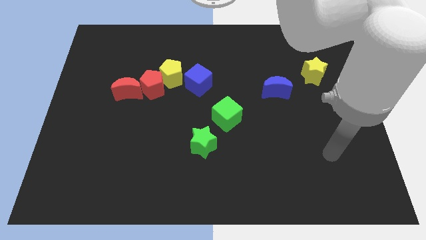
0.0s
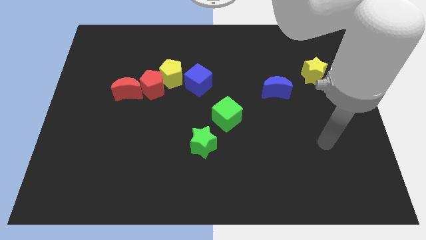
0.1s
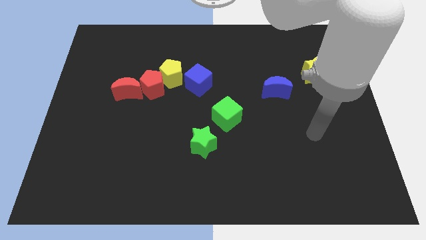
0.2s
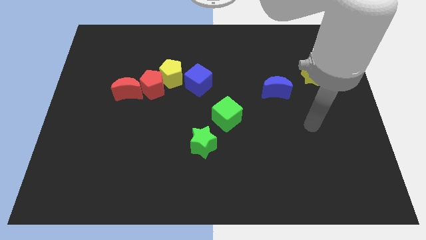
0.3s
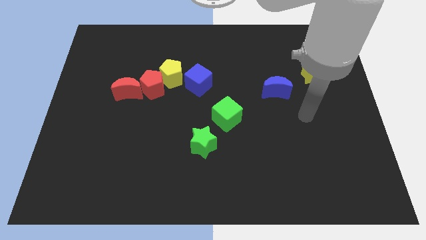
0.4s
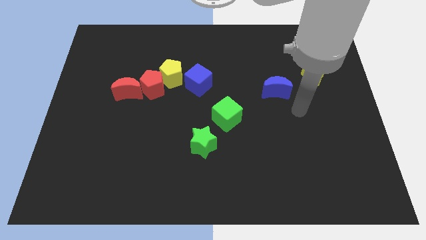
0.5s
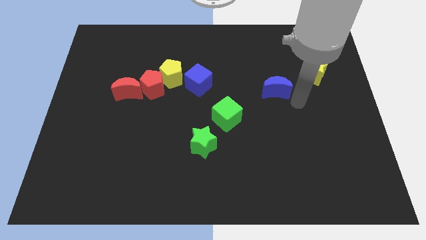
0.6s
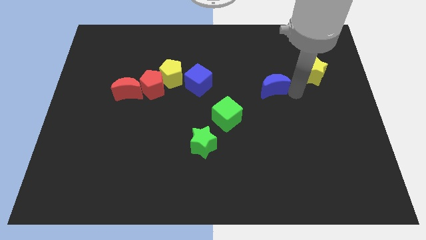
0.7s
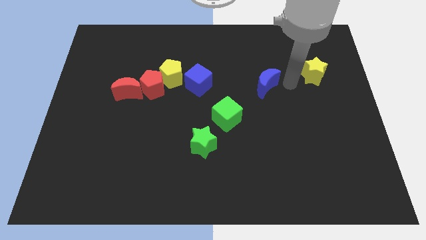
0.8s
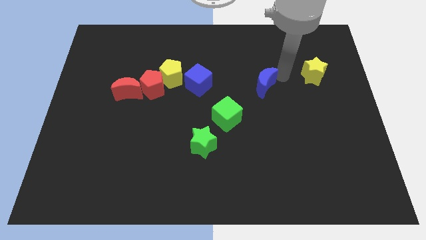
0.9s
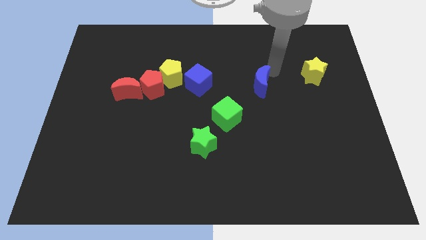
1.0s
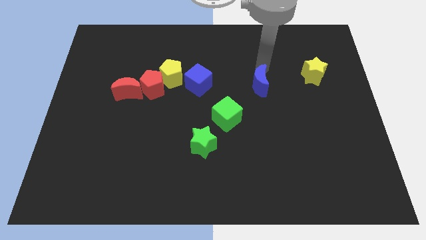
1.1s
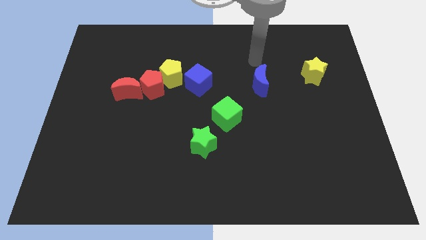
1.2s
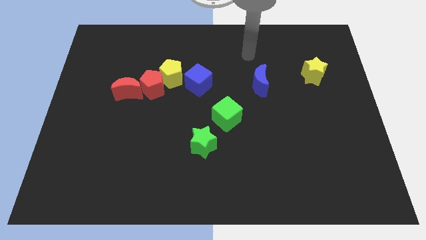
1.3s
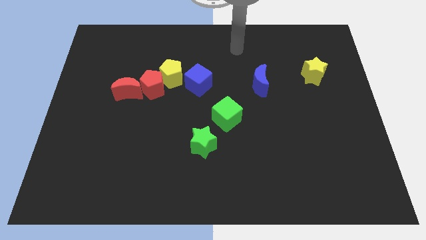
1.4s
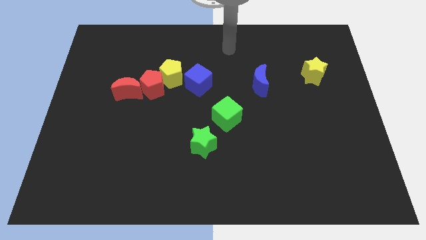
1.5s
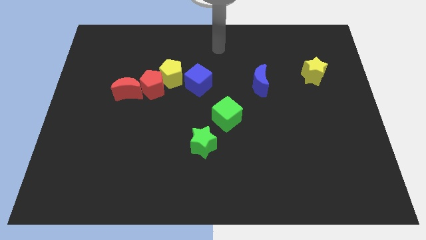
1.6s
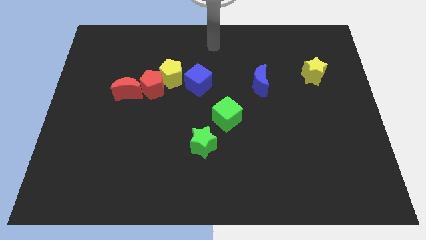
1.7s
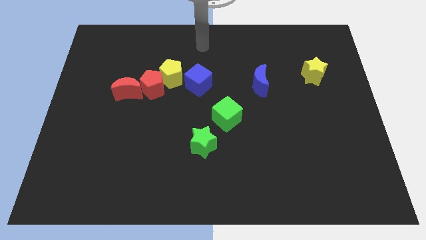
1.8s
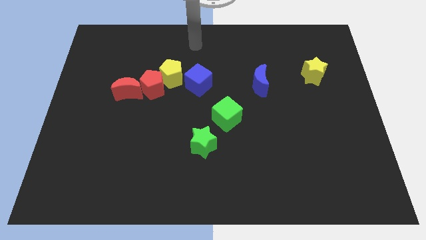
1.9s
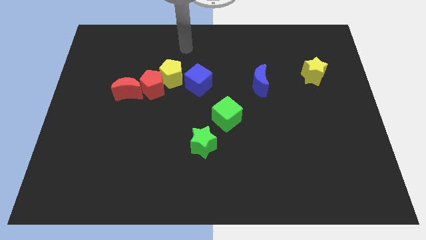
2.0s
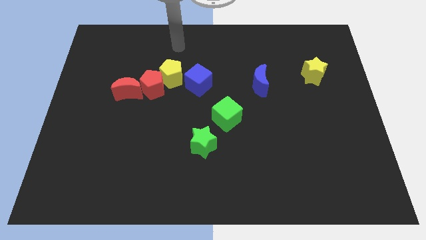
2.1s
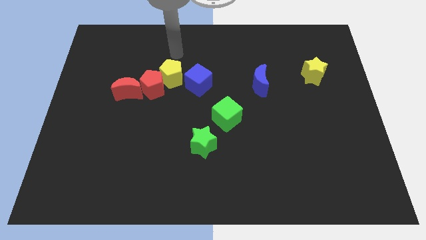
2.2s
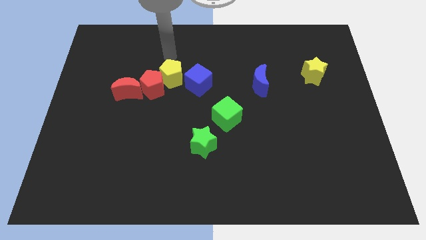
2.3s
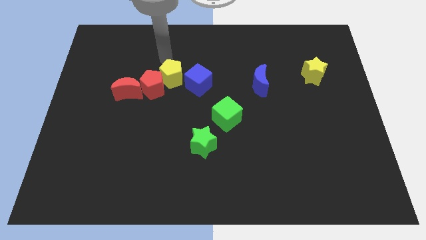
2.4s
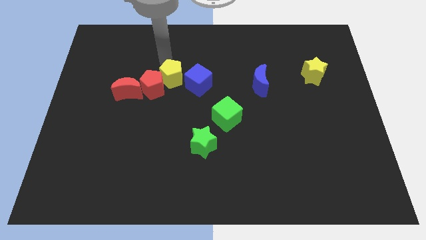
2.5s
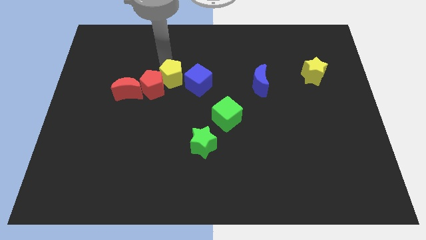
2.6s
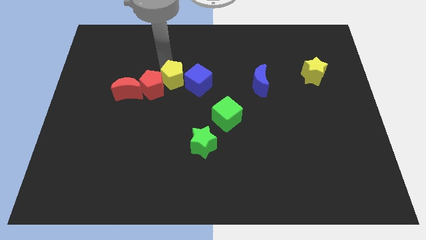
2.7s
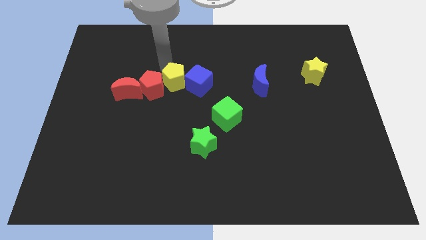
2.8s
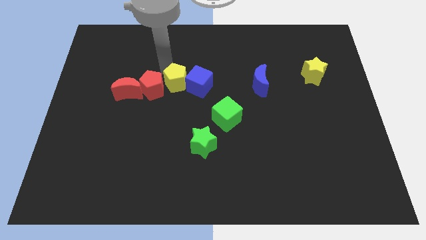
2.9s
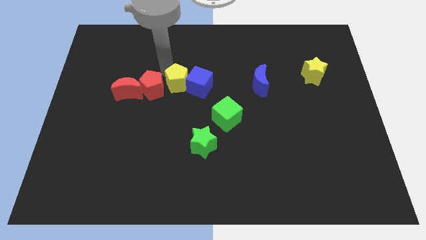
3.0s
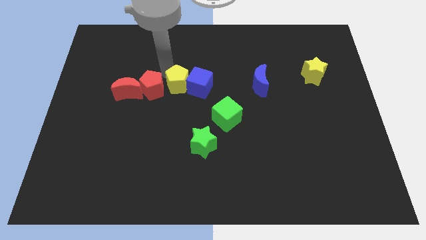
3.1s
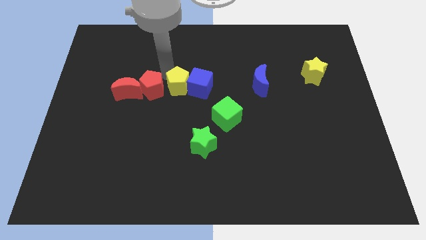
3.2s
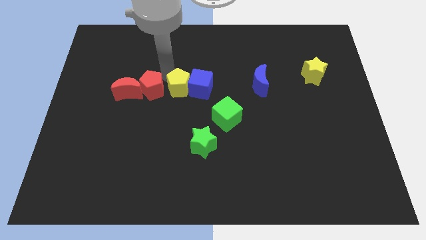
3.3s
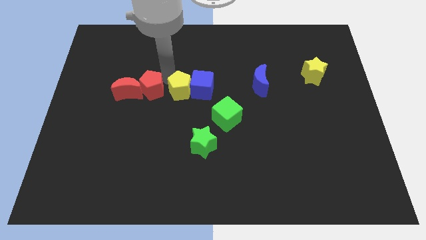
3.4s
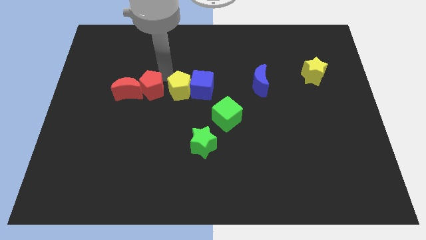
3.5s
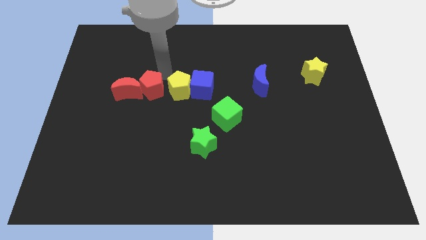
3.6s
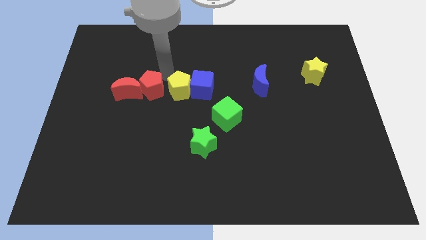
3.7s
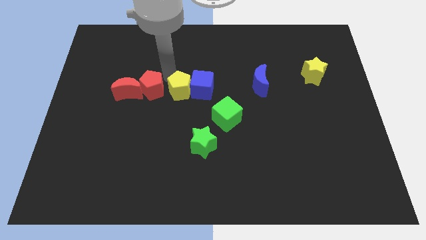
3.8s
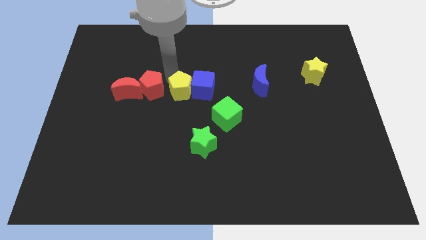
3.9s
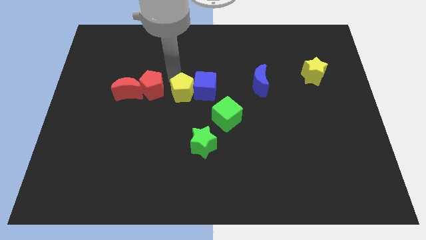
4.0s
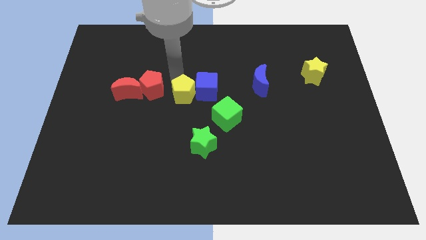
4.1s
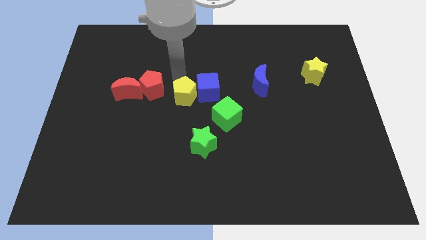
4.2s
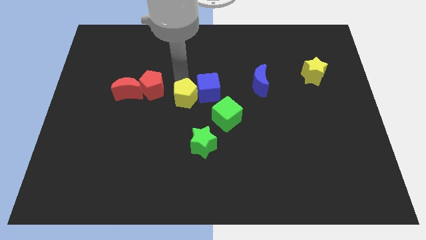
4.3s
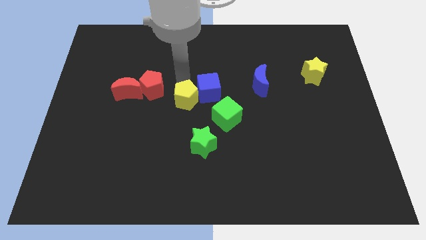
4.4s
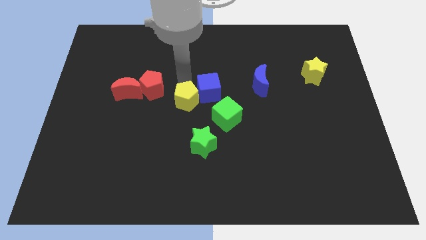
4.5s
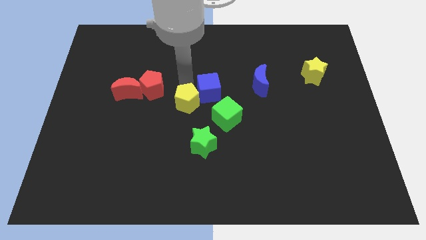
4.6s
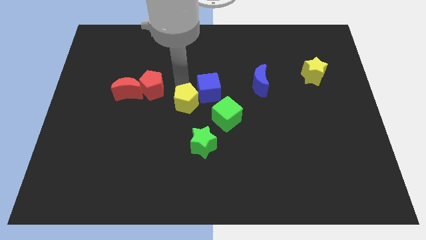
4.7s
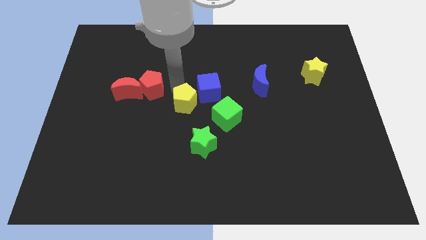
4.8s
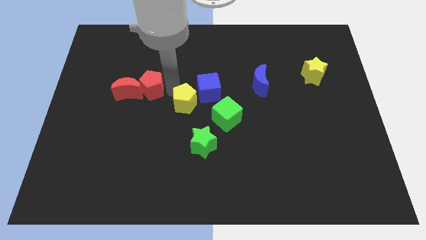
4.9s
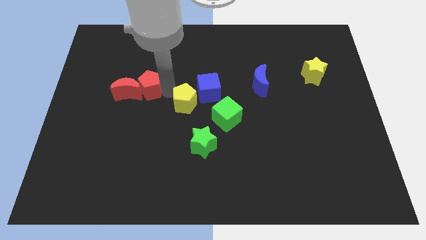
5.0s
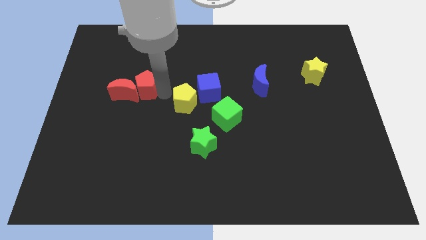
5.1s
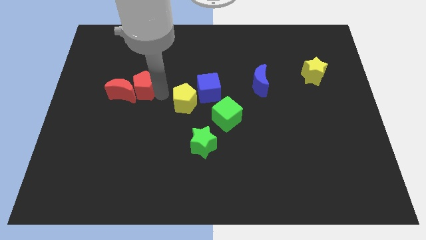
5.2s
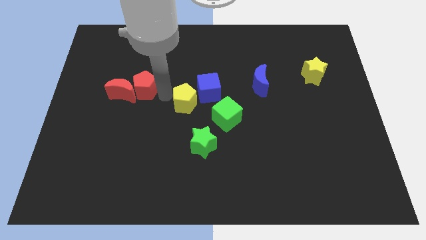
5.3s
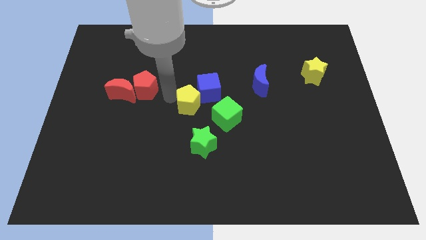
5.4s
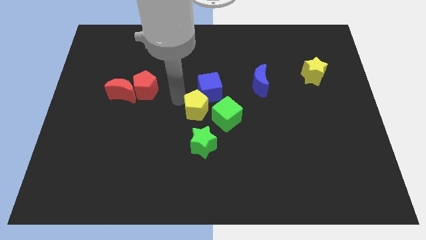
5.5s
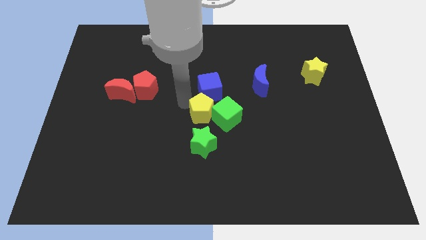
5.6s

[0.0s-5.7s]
push the yellow pentagon towards the green cube

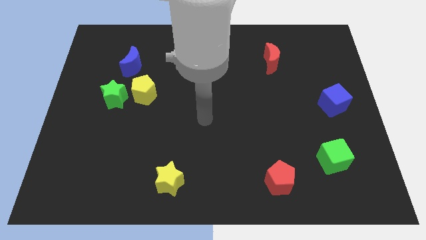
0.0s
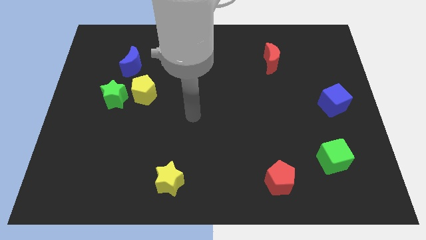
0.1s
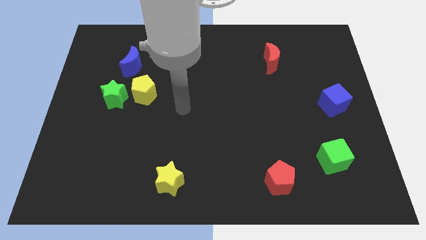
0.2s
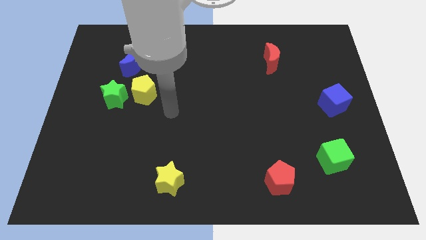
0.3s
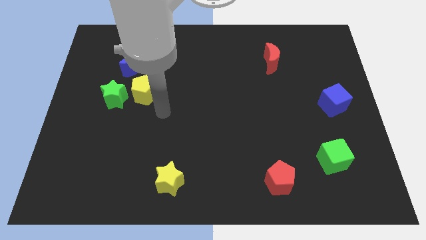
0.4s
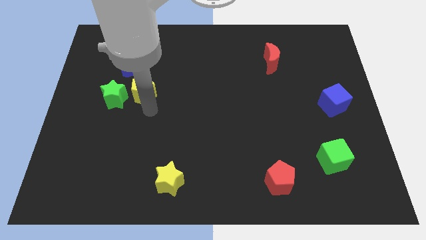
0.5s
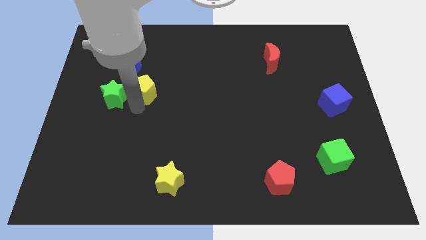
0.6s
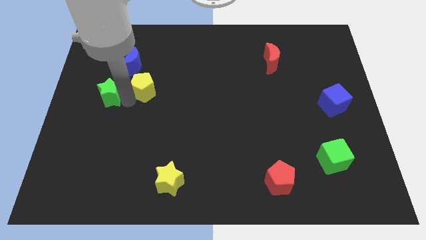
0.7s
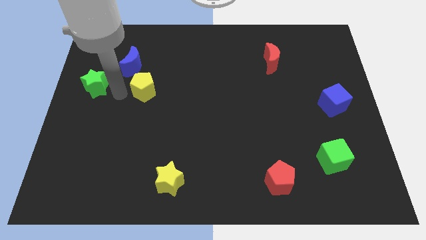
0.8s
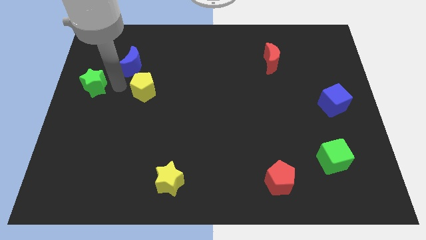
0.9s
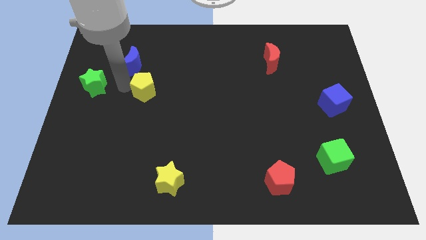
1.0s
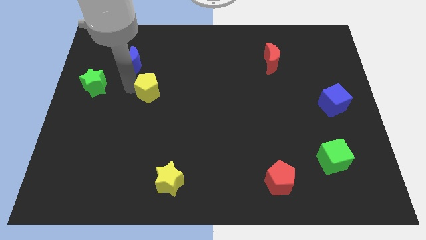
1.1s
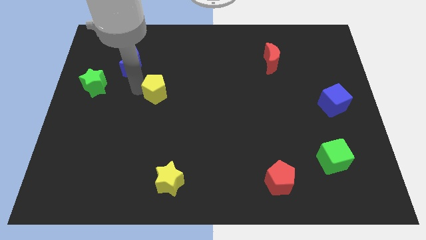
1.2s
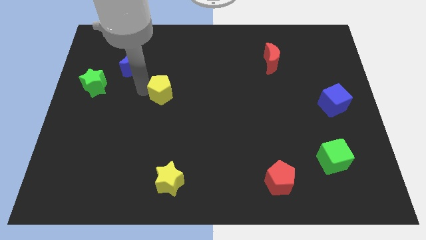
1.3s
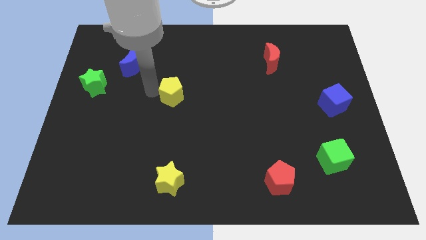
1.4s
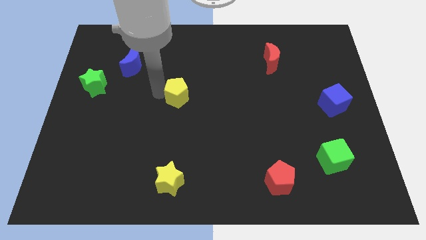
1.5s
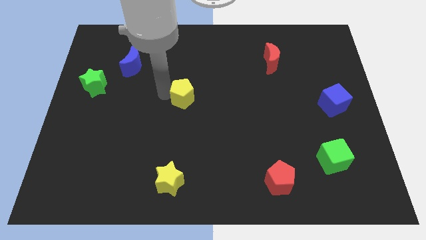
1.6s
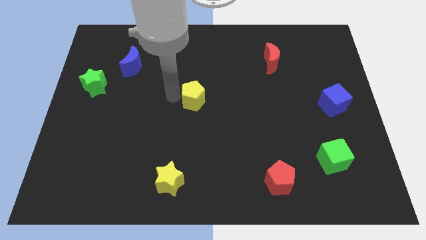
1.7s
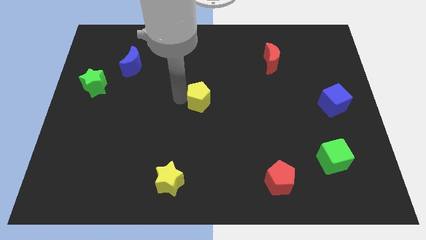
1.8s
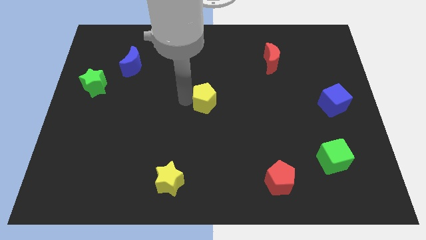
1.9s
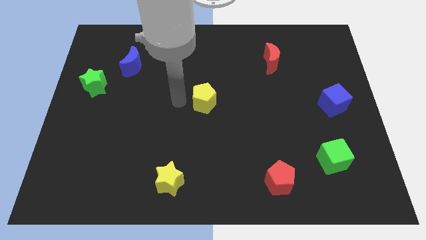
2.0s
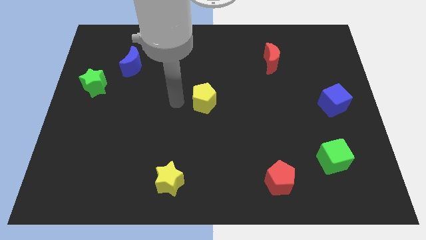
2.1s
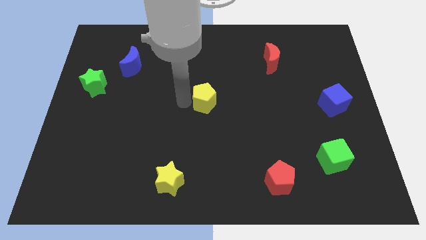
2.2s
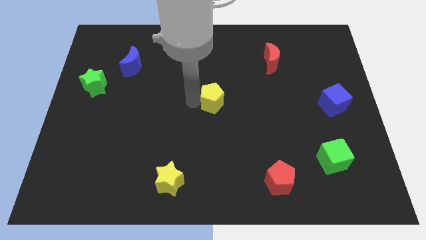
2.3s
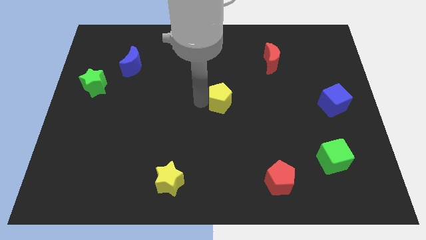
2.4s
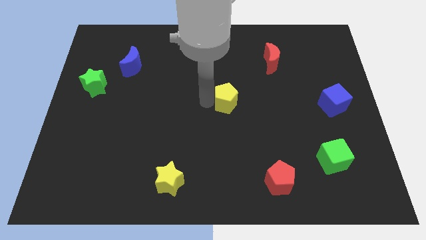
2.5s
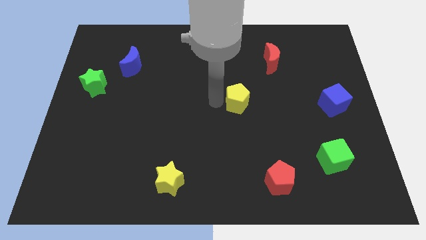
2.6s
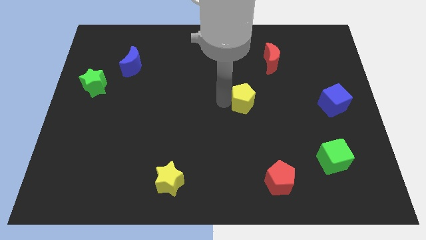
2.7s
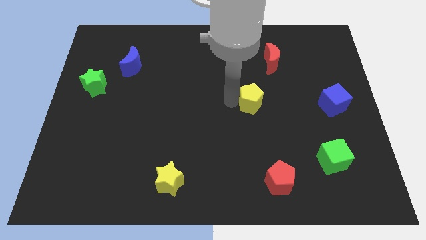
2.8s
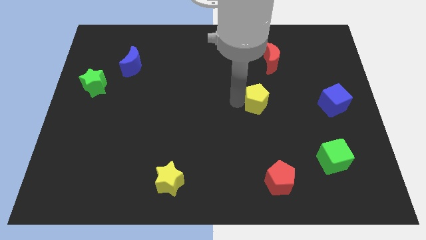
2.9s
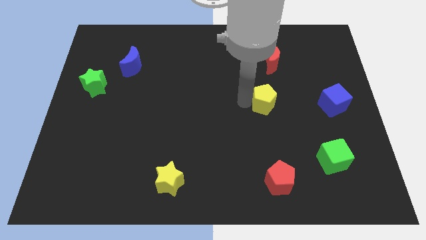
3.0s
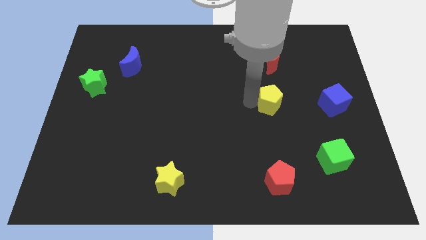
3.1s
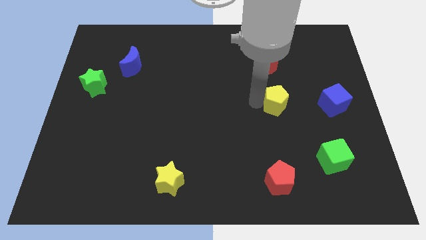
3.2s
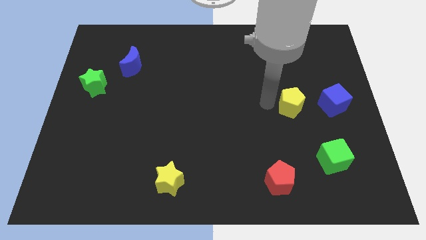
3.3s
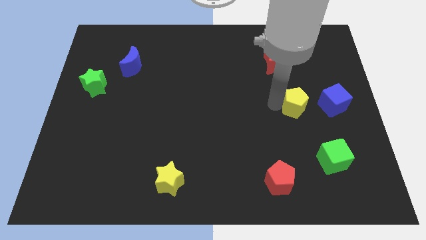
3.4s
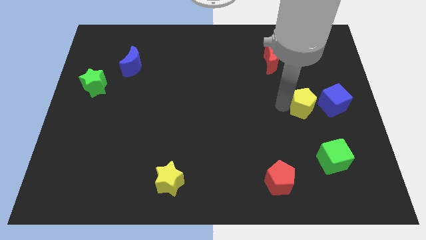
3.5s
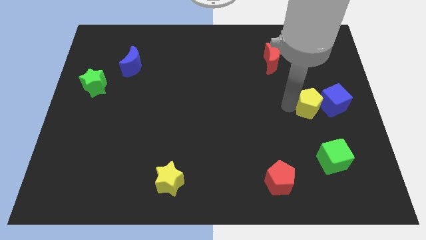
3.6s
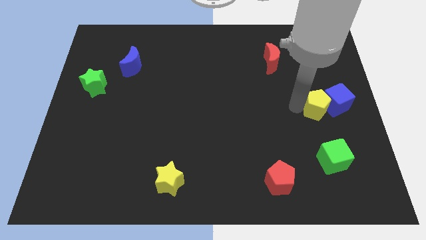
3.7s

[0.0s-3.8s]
push the yellow pentagon next to the blue cube
